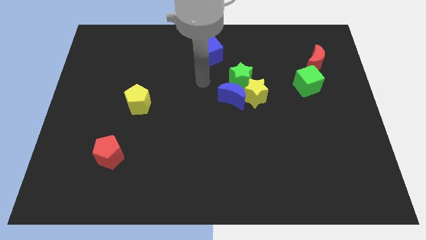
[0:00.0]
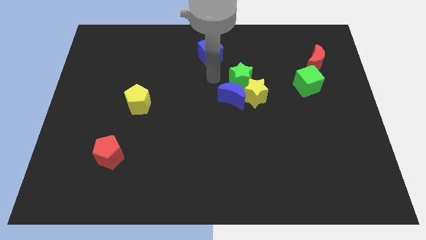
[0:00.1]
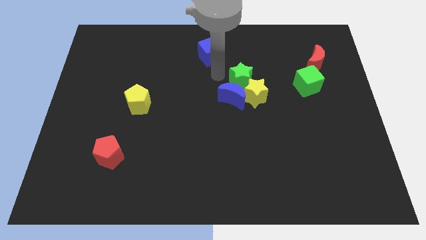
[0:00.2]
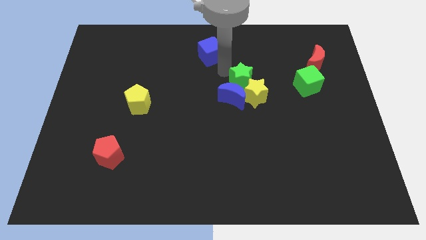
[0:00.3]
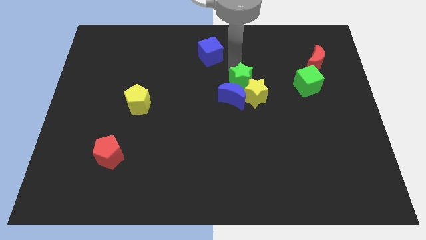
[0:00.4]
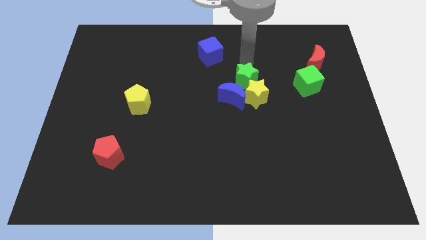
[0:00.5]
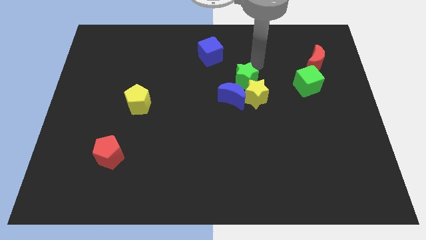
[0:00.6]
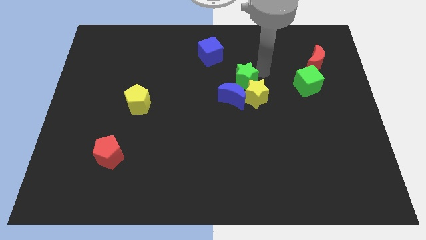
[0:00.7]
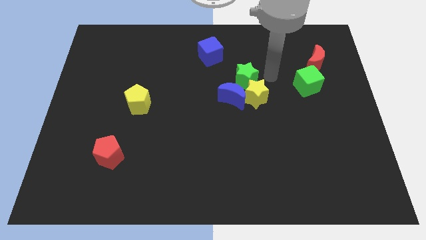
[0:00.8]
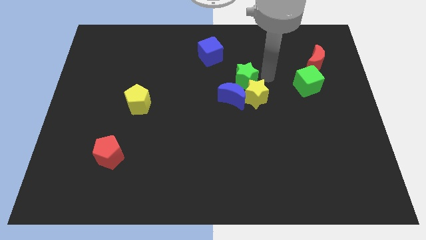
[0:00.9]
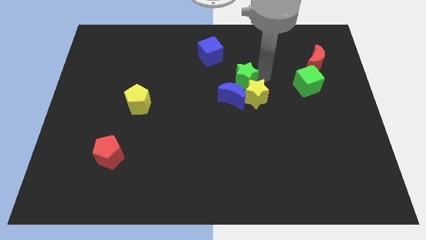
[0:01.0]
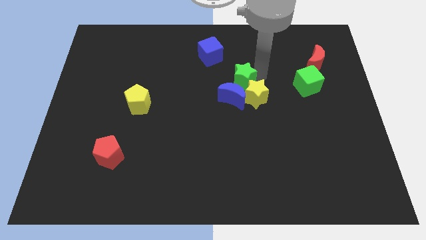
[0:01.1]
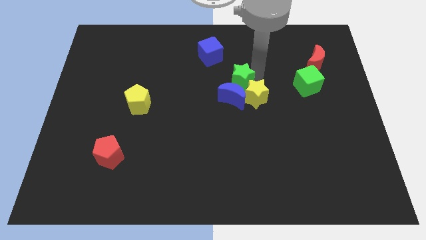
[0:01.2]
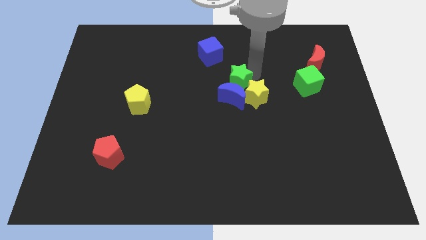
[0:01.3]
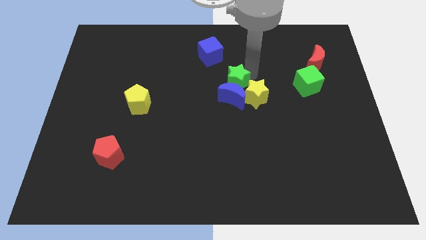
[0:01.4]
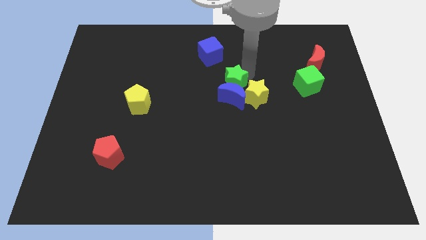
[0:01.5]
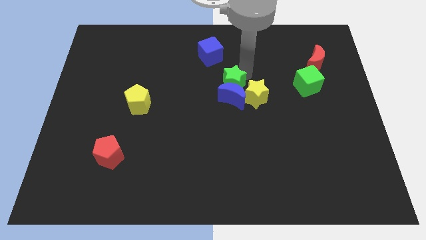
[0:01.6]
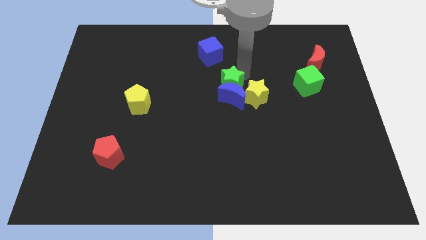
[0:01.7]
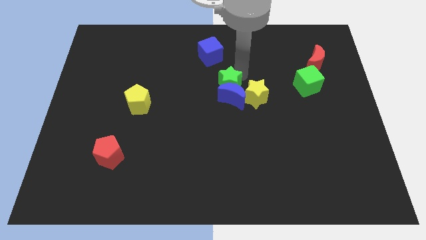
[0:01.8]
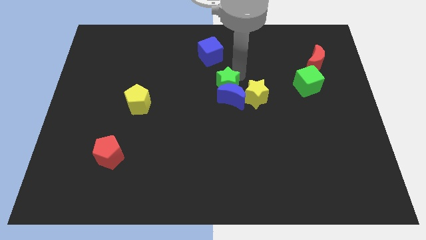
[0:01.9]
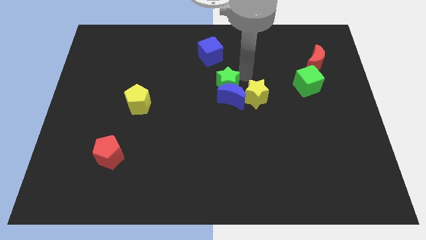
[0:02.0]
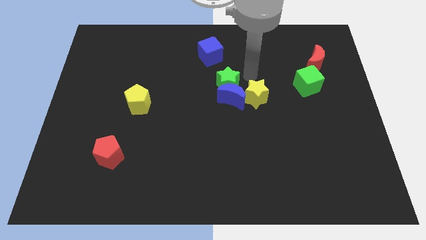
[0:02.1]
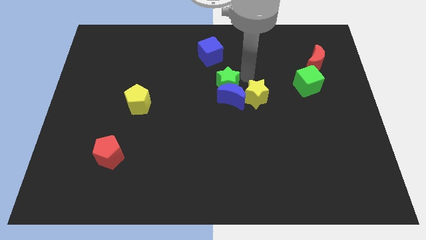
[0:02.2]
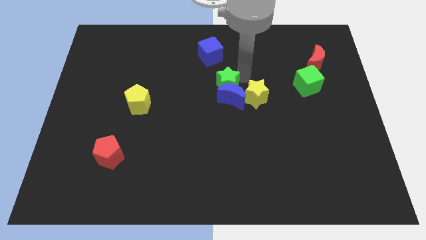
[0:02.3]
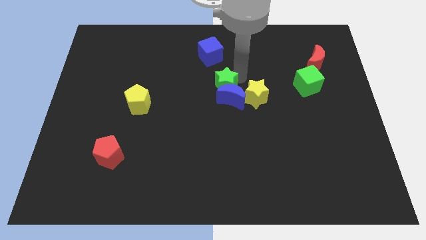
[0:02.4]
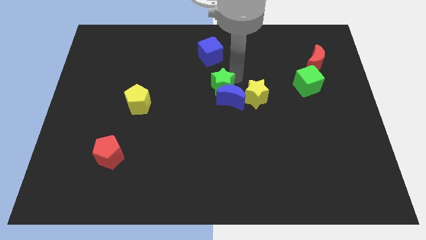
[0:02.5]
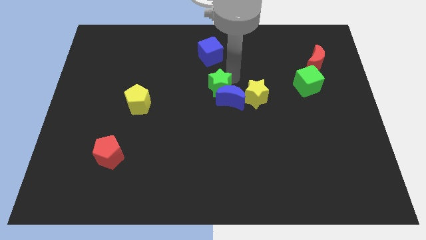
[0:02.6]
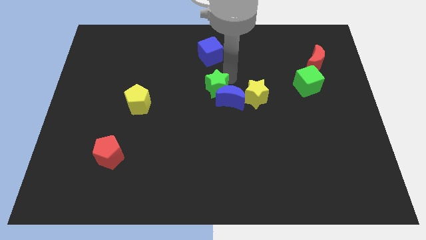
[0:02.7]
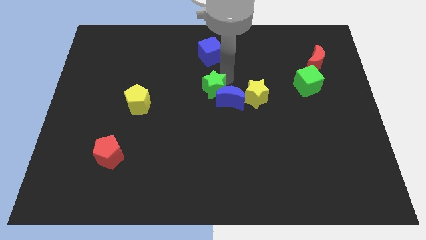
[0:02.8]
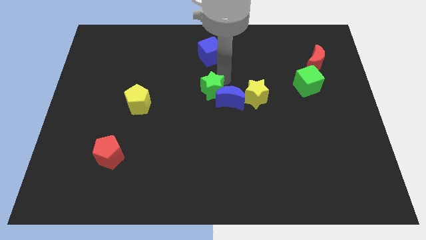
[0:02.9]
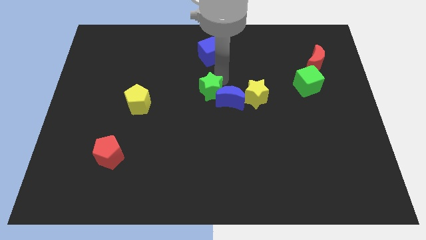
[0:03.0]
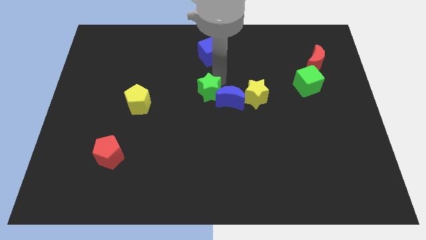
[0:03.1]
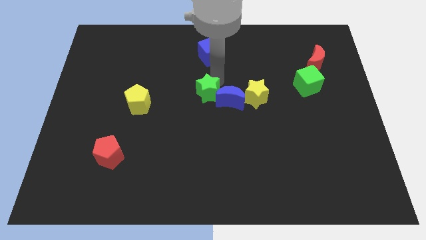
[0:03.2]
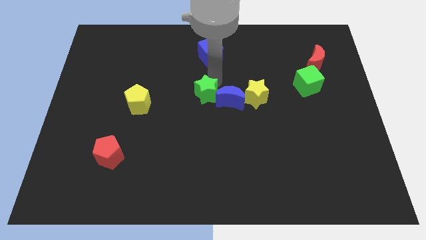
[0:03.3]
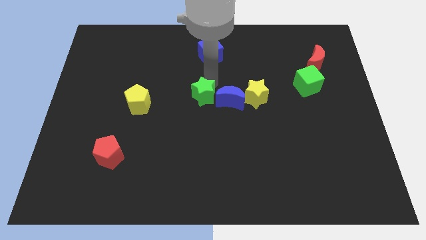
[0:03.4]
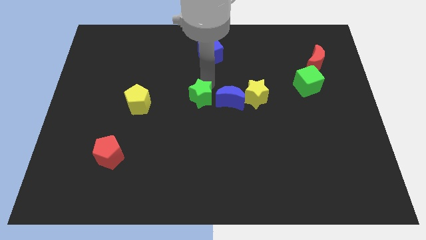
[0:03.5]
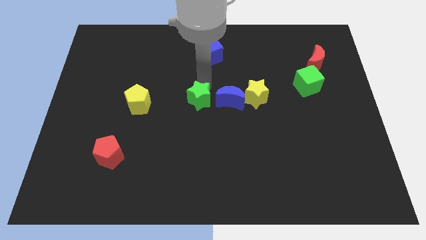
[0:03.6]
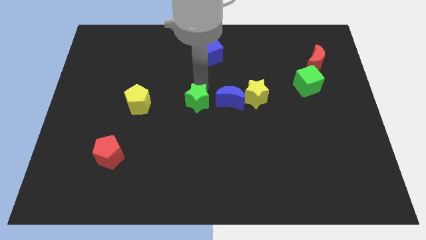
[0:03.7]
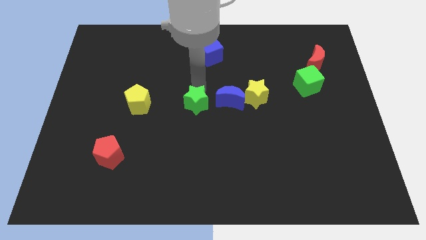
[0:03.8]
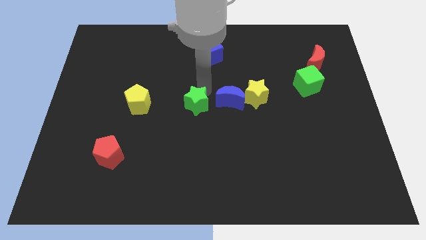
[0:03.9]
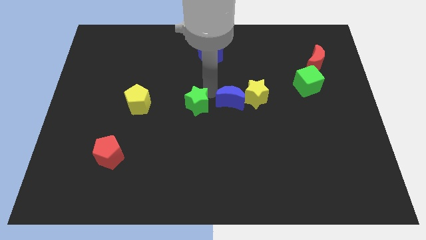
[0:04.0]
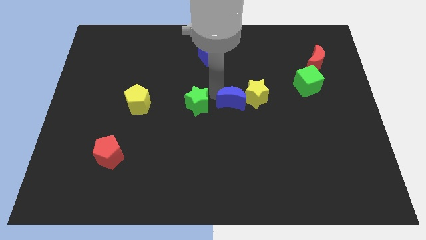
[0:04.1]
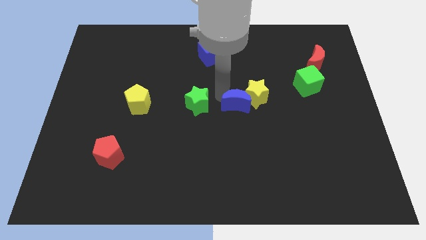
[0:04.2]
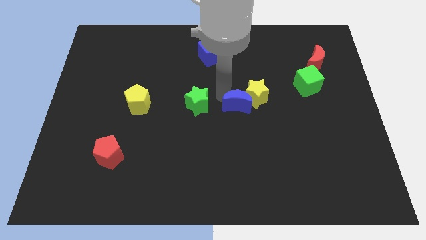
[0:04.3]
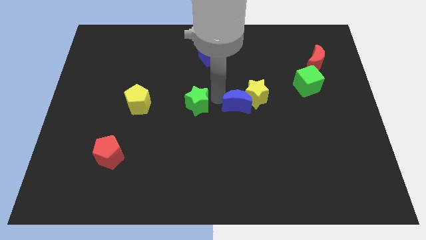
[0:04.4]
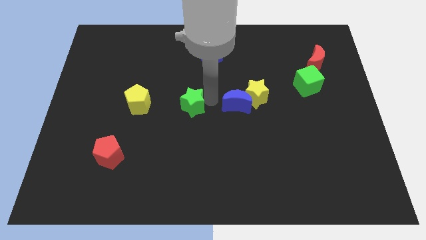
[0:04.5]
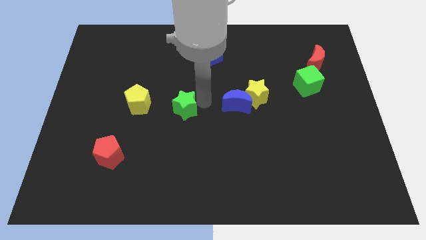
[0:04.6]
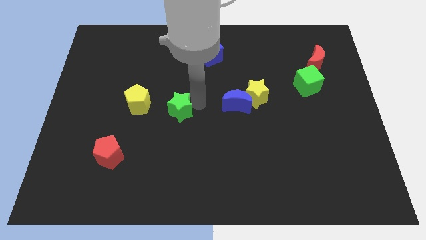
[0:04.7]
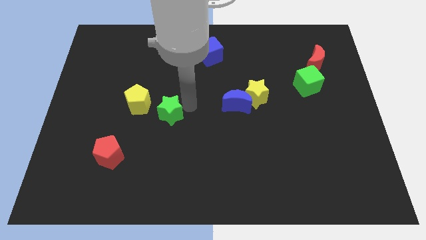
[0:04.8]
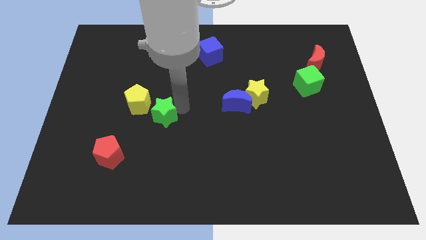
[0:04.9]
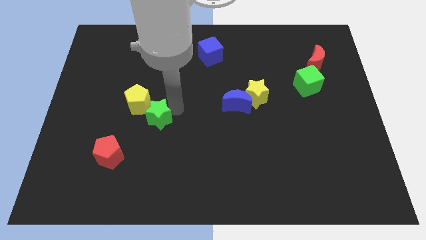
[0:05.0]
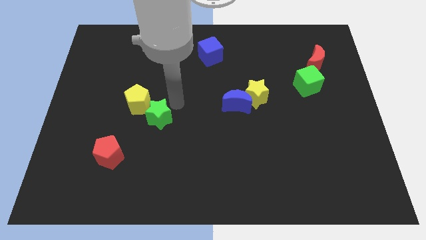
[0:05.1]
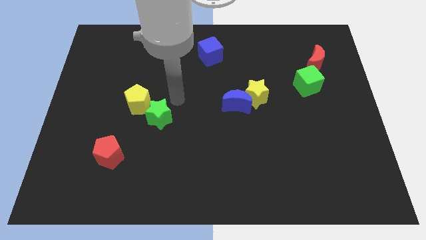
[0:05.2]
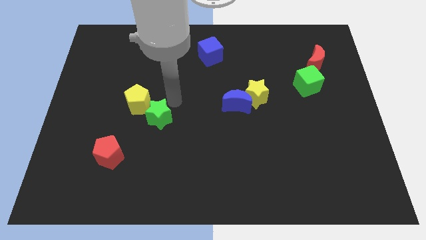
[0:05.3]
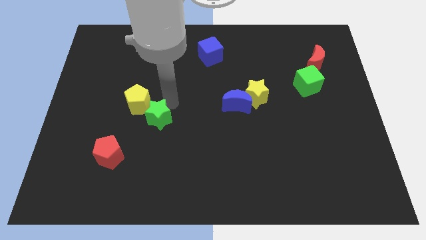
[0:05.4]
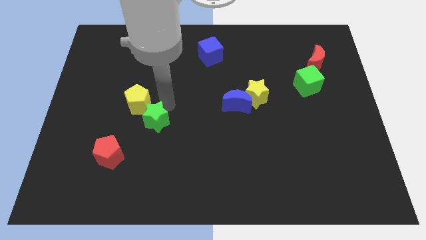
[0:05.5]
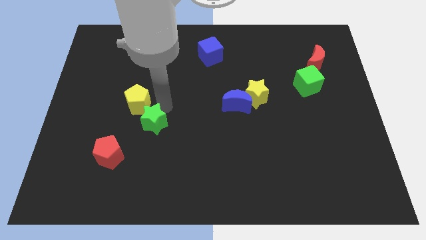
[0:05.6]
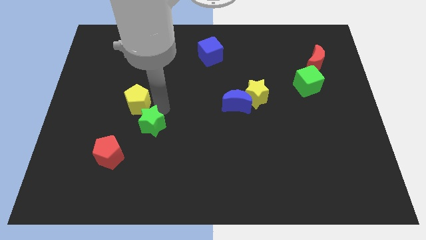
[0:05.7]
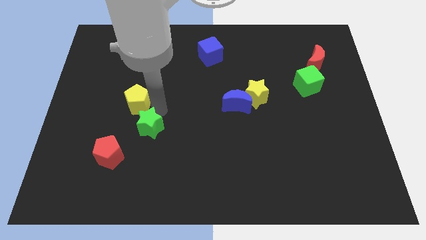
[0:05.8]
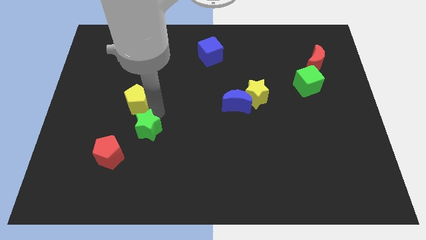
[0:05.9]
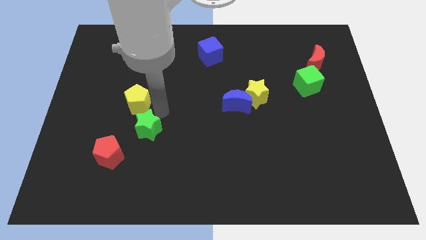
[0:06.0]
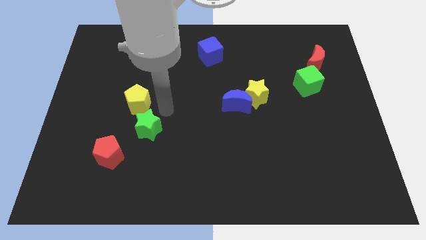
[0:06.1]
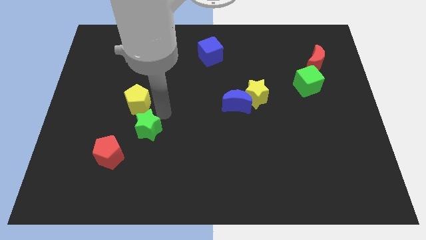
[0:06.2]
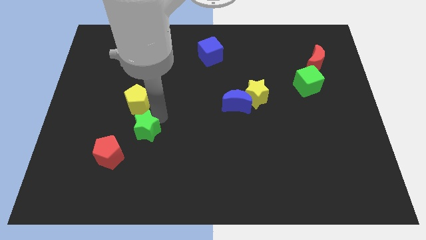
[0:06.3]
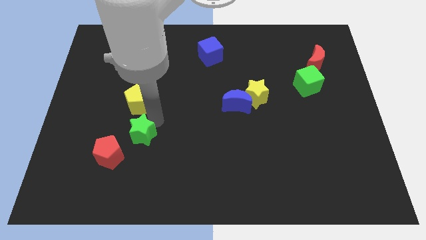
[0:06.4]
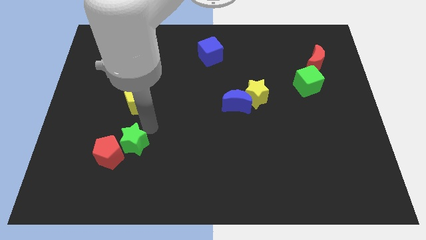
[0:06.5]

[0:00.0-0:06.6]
push the green star next to the red pentagon

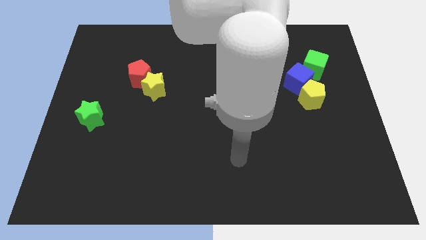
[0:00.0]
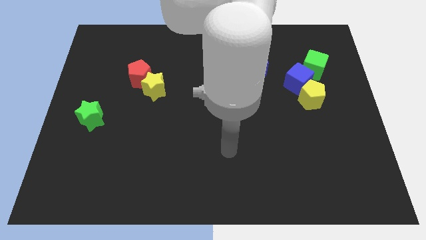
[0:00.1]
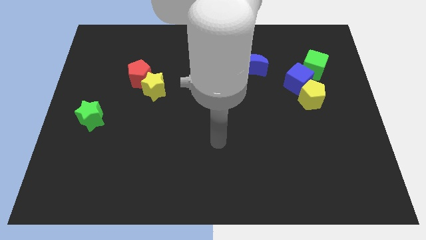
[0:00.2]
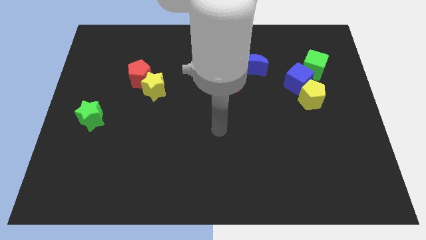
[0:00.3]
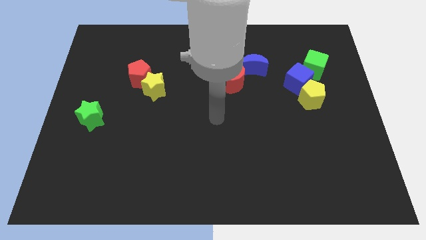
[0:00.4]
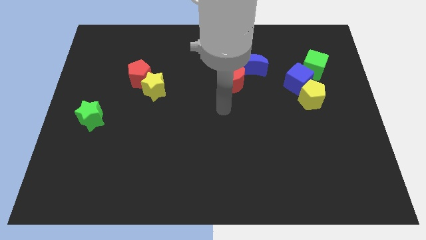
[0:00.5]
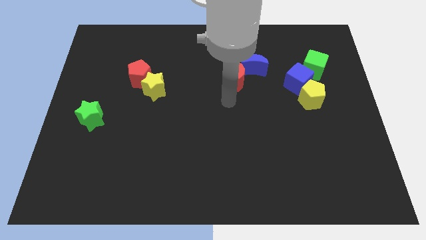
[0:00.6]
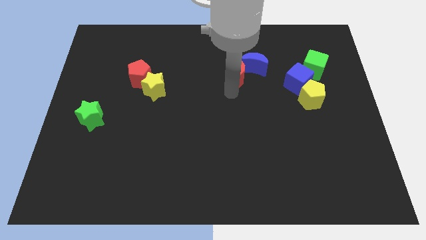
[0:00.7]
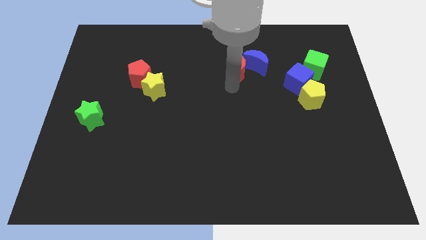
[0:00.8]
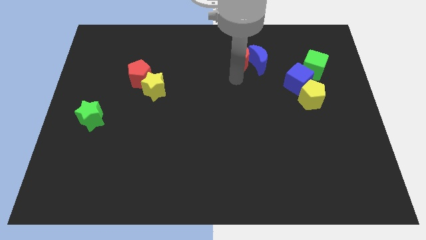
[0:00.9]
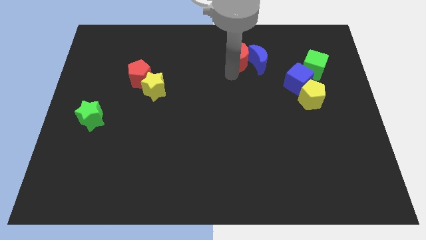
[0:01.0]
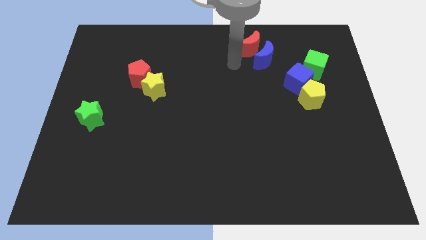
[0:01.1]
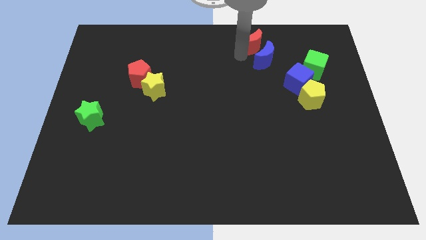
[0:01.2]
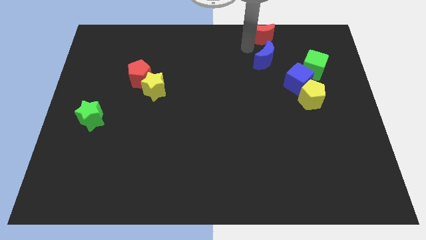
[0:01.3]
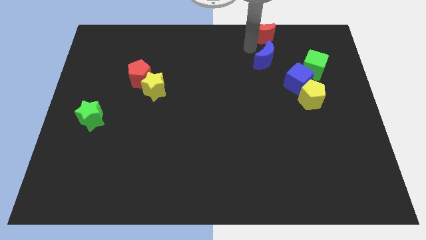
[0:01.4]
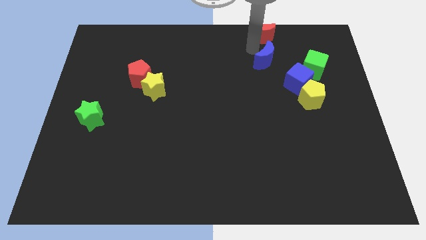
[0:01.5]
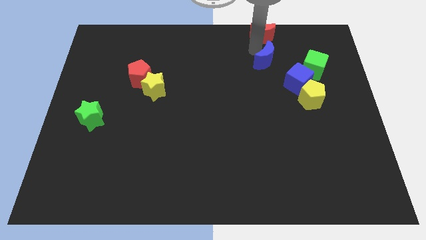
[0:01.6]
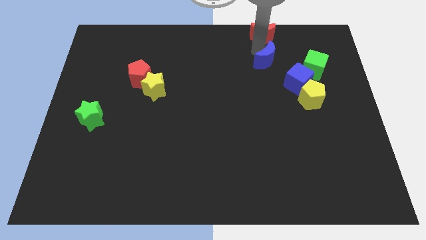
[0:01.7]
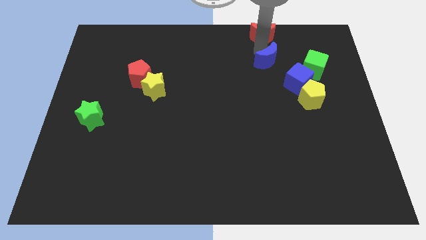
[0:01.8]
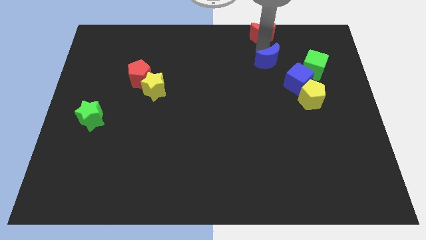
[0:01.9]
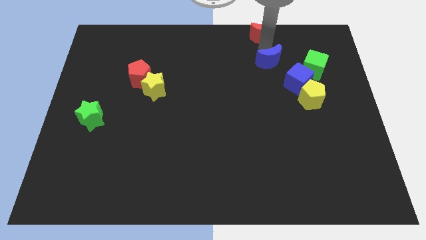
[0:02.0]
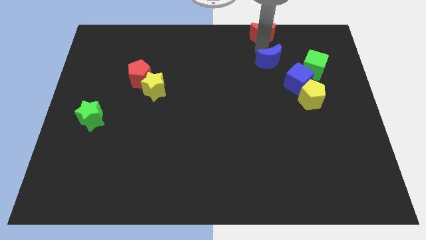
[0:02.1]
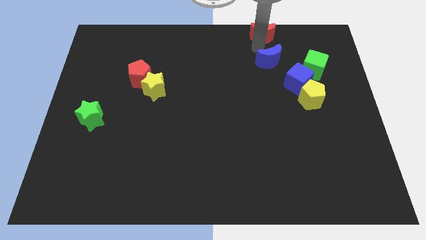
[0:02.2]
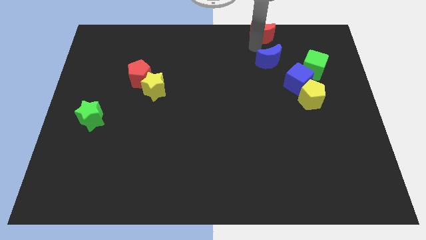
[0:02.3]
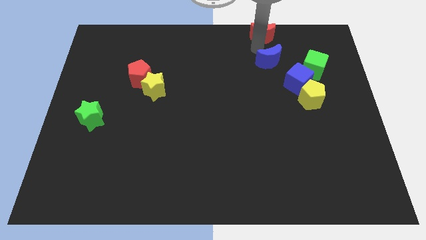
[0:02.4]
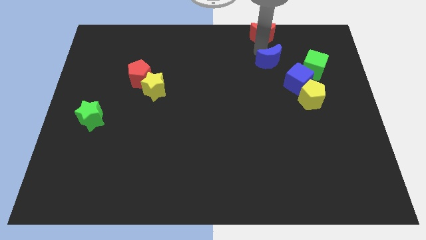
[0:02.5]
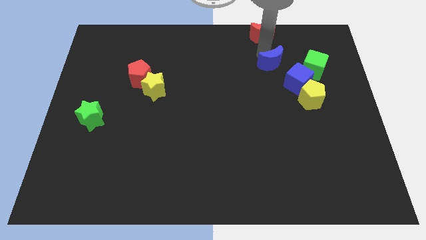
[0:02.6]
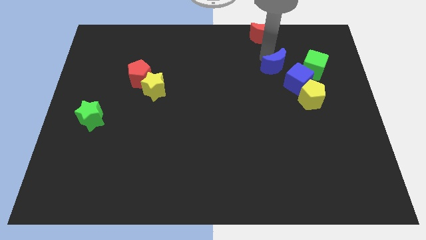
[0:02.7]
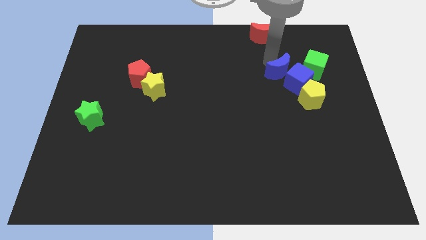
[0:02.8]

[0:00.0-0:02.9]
push the blue moon close to the blue cube
